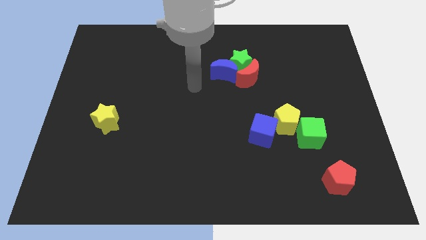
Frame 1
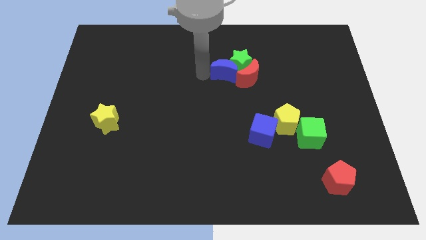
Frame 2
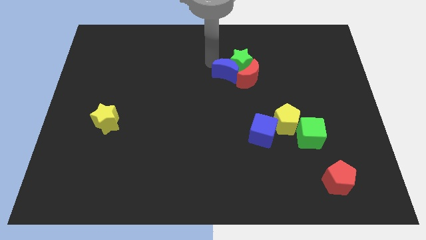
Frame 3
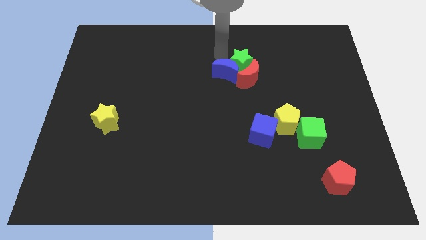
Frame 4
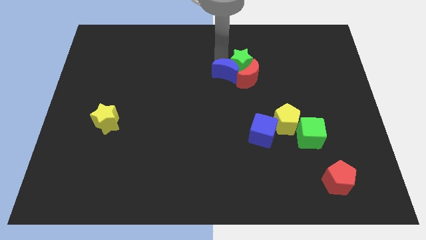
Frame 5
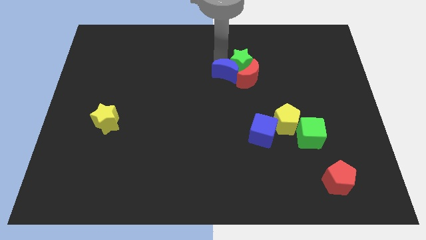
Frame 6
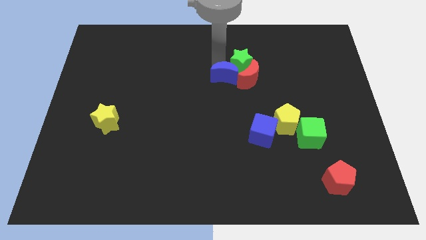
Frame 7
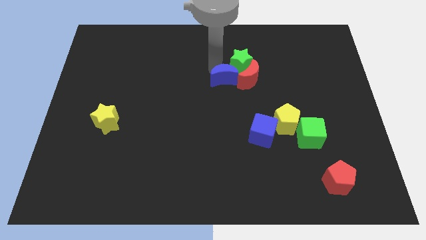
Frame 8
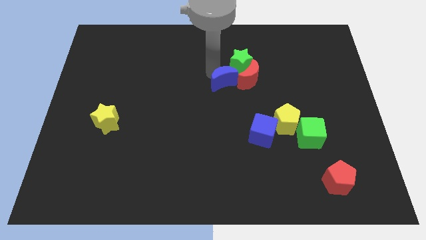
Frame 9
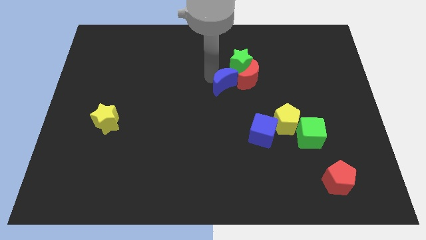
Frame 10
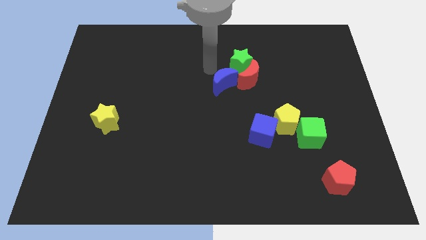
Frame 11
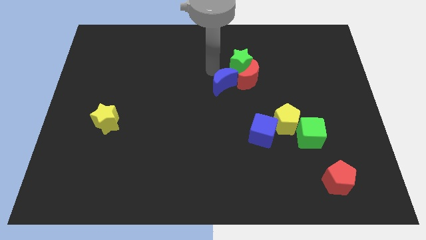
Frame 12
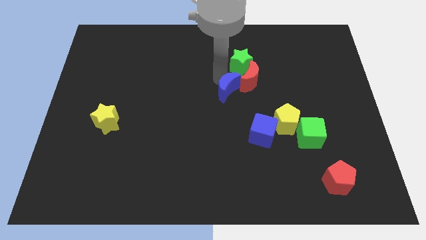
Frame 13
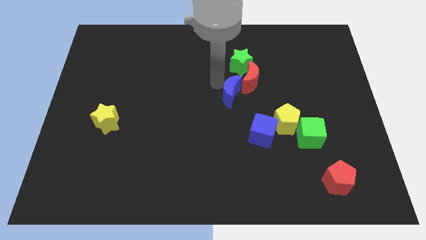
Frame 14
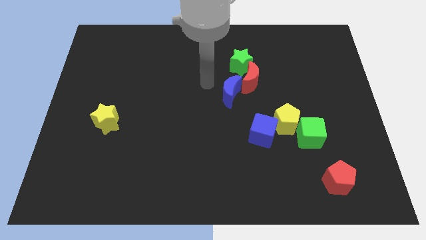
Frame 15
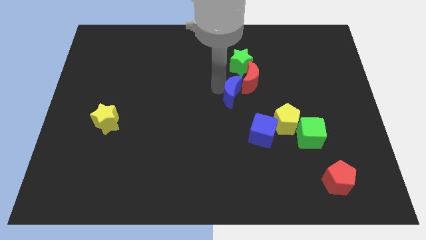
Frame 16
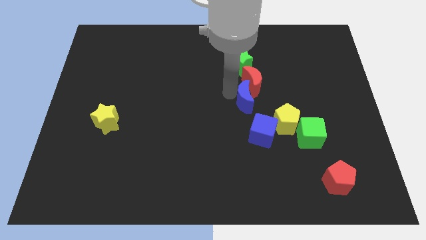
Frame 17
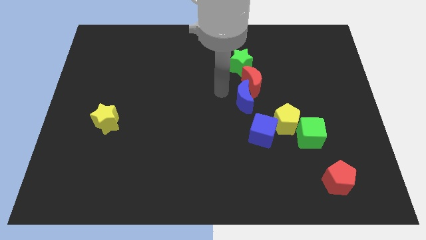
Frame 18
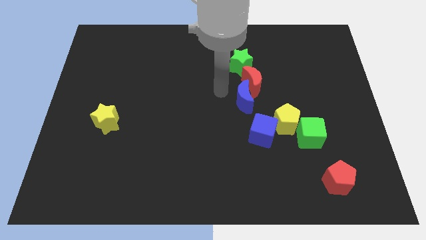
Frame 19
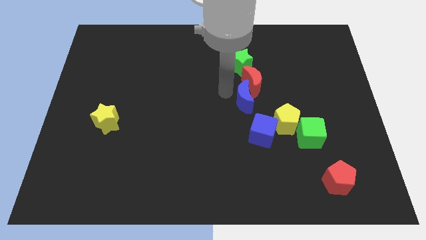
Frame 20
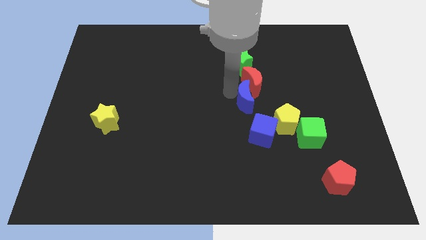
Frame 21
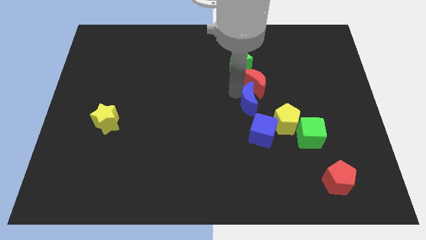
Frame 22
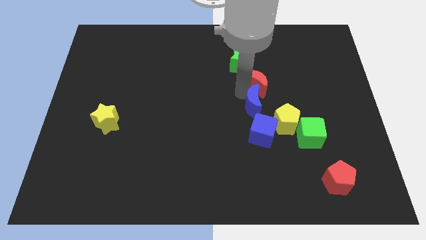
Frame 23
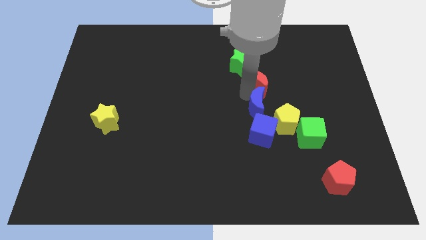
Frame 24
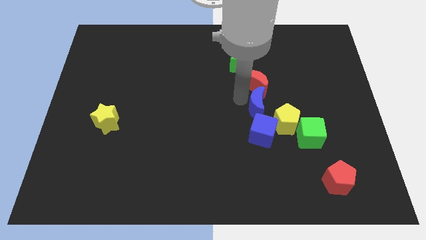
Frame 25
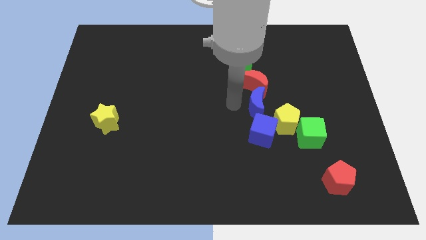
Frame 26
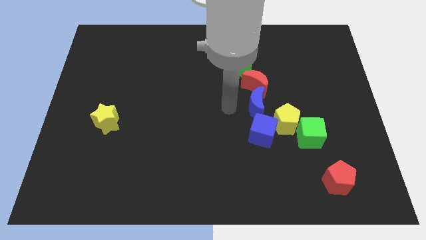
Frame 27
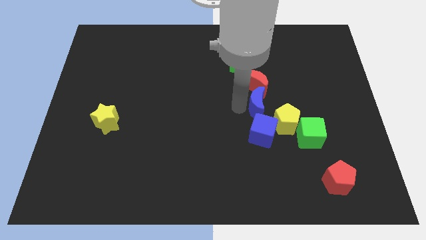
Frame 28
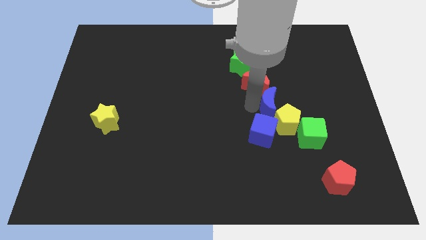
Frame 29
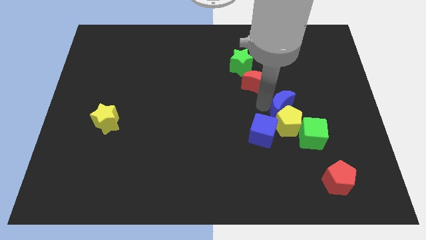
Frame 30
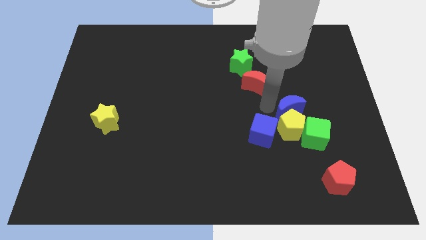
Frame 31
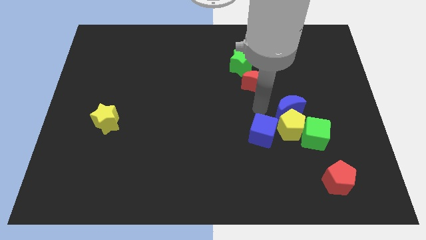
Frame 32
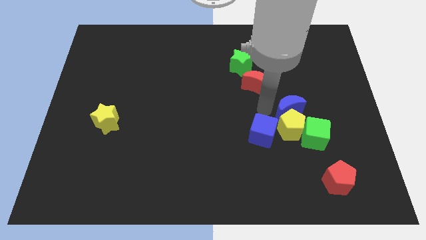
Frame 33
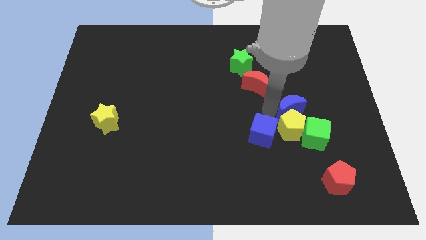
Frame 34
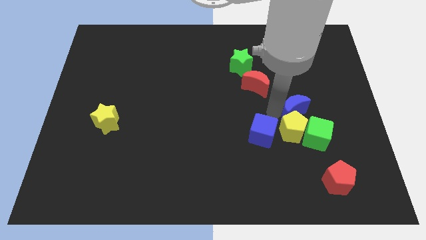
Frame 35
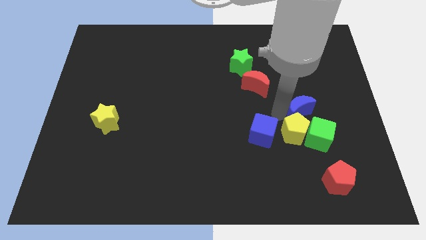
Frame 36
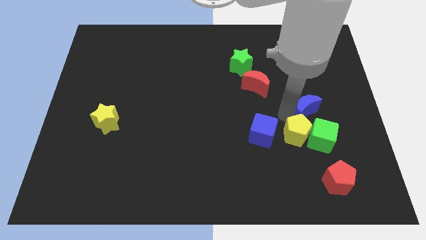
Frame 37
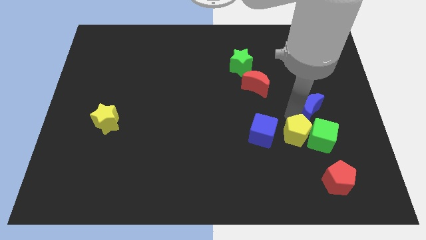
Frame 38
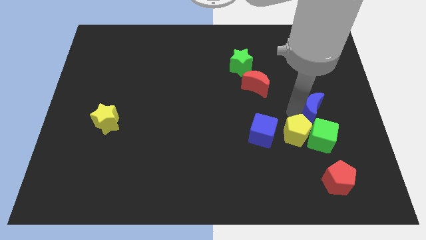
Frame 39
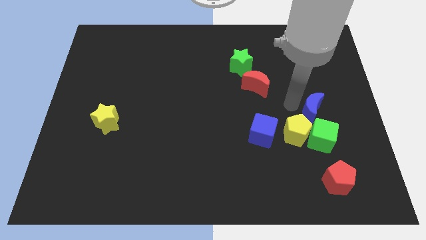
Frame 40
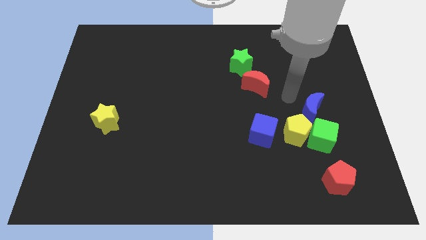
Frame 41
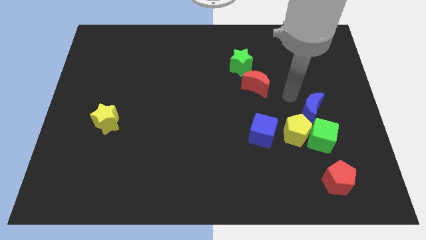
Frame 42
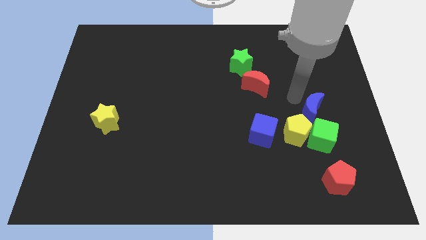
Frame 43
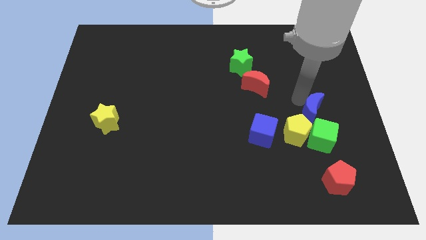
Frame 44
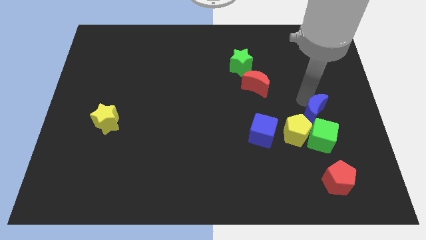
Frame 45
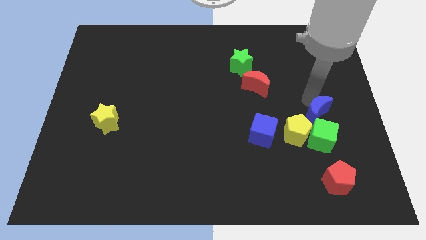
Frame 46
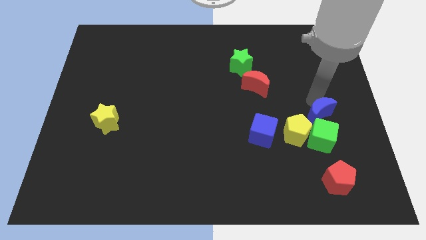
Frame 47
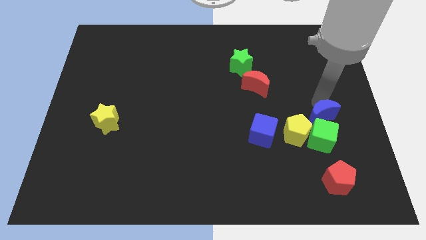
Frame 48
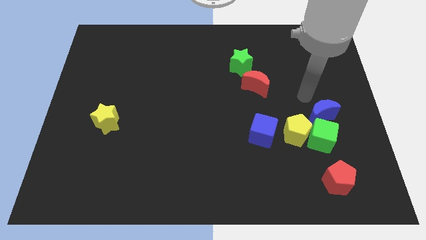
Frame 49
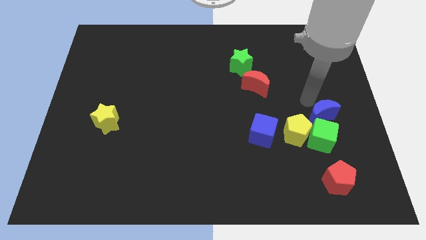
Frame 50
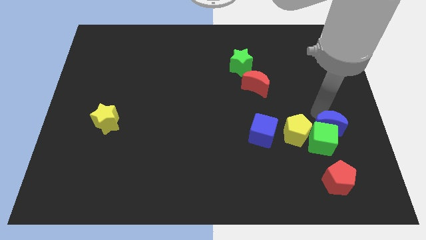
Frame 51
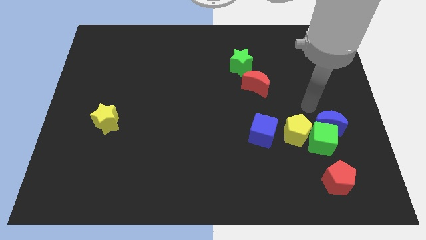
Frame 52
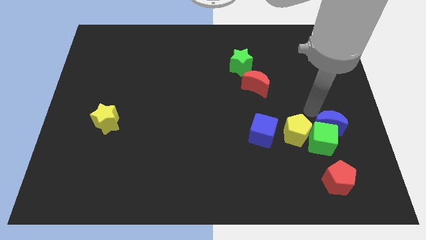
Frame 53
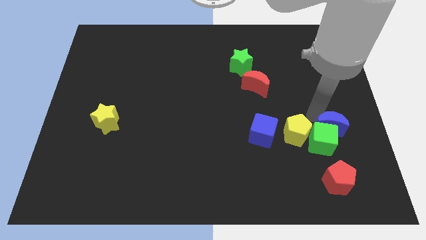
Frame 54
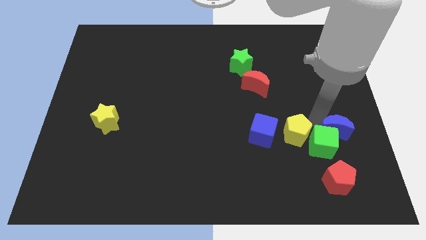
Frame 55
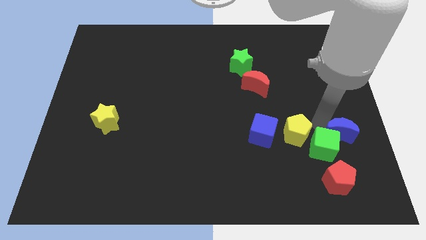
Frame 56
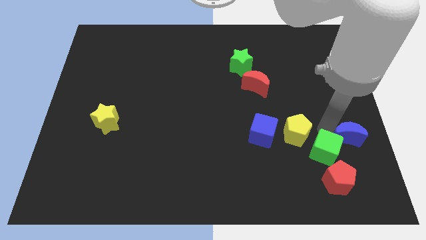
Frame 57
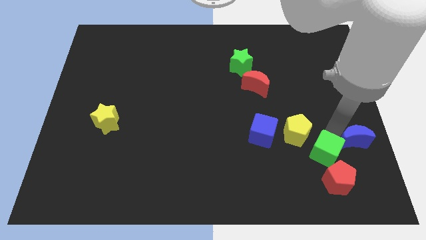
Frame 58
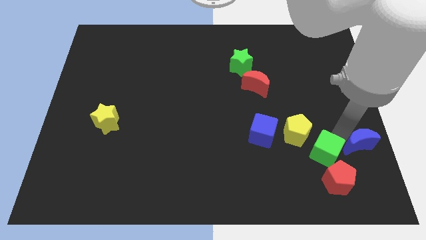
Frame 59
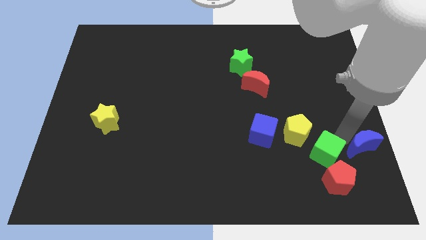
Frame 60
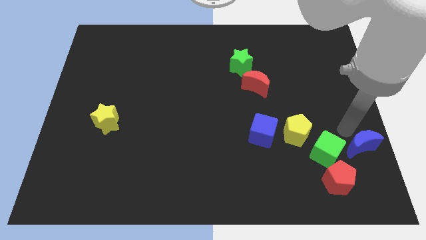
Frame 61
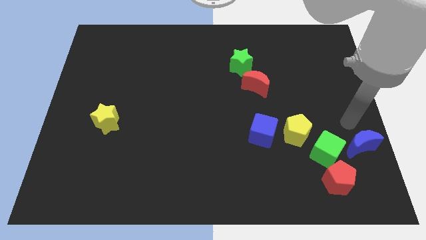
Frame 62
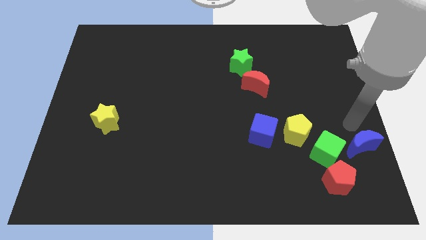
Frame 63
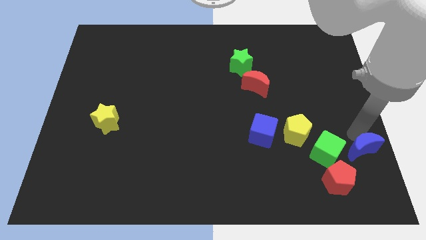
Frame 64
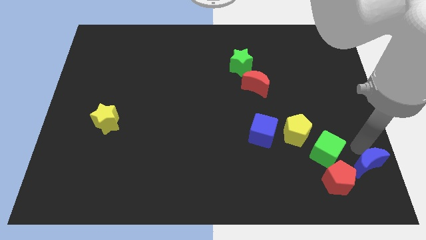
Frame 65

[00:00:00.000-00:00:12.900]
slide the blue moon to the bottom right
